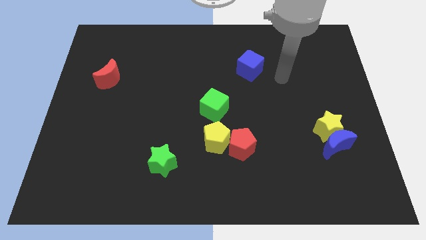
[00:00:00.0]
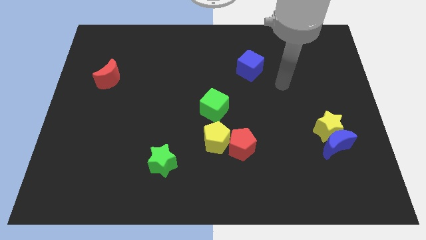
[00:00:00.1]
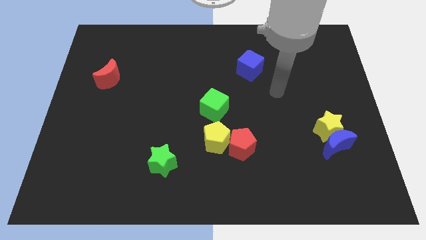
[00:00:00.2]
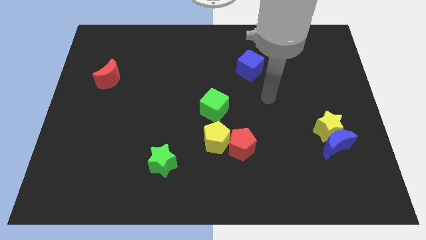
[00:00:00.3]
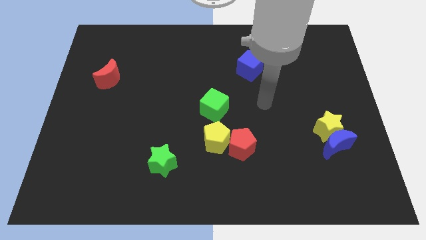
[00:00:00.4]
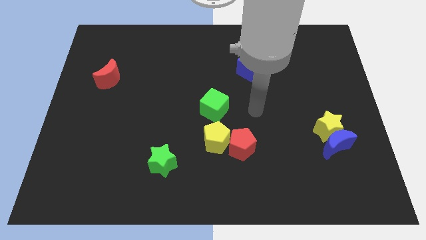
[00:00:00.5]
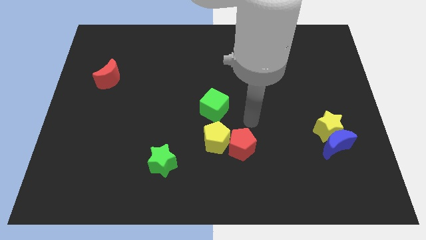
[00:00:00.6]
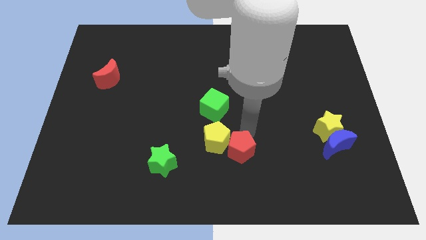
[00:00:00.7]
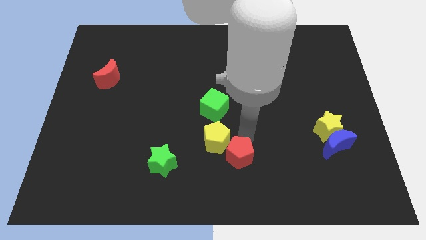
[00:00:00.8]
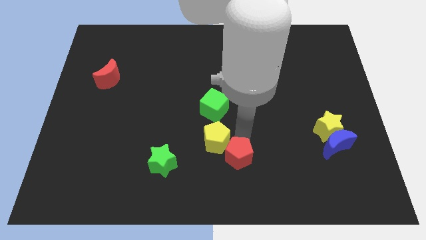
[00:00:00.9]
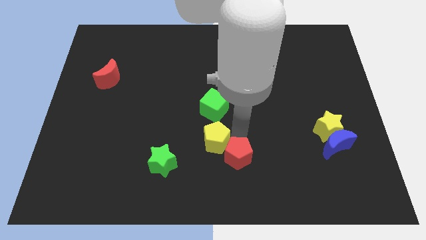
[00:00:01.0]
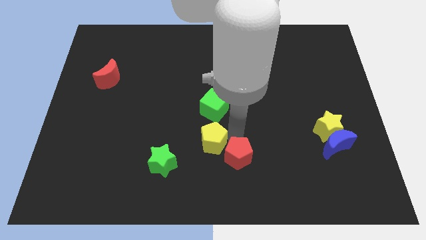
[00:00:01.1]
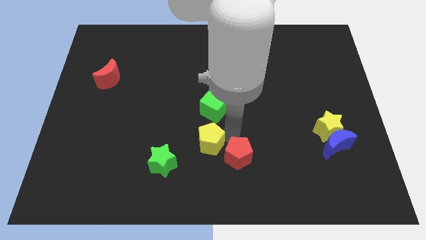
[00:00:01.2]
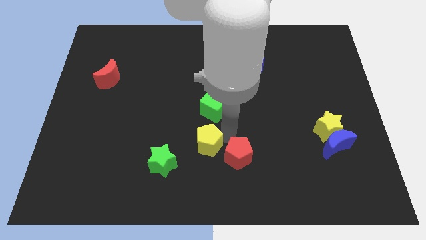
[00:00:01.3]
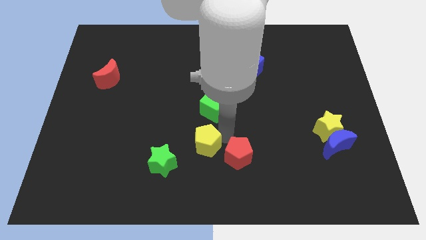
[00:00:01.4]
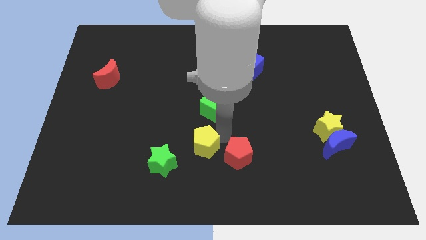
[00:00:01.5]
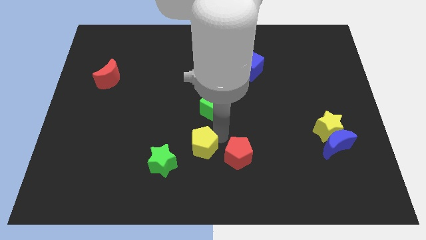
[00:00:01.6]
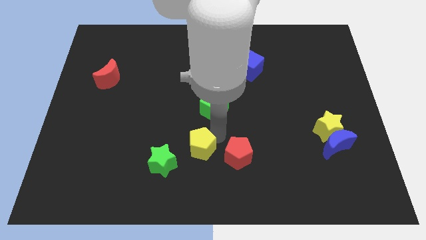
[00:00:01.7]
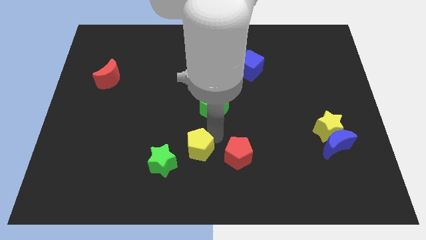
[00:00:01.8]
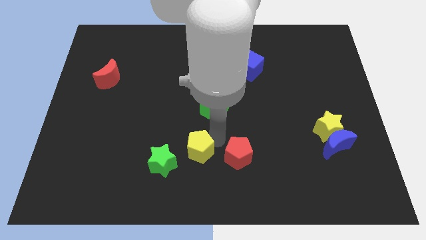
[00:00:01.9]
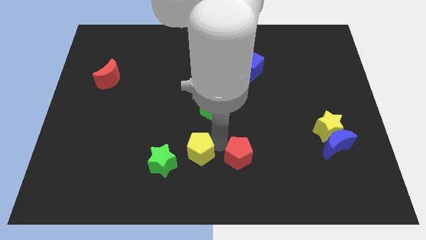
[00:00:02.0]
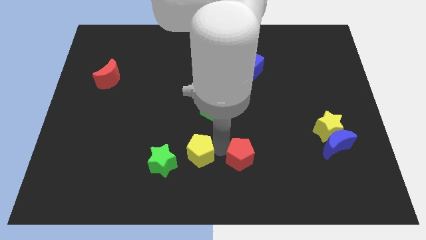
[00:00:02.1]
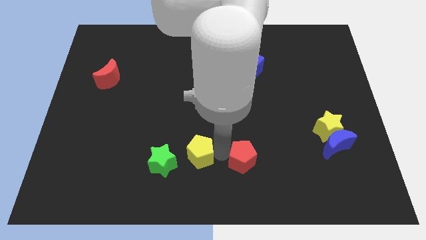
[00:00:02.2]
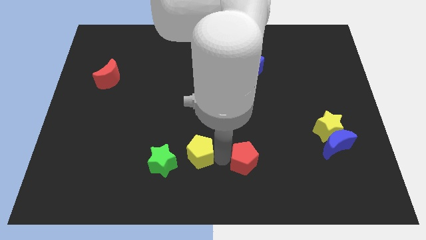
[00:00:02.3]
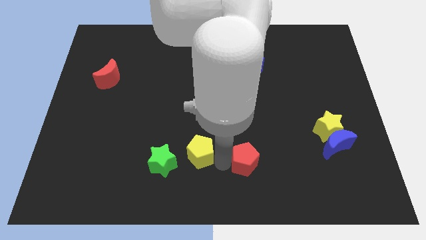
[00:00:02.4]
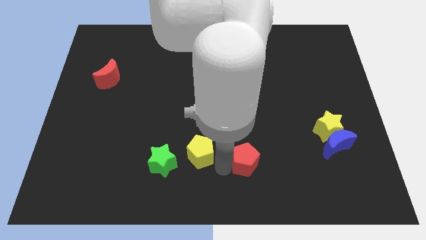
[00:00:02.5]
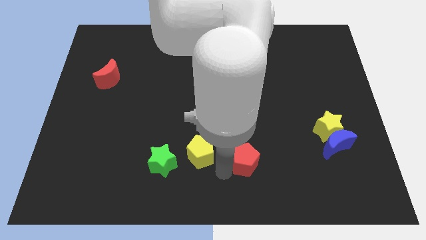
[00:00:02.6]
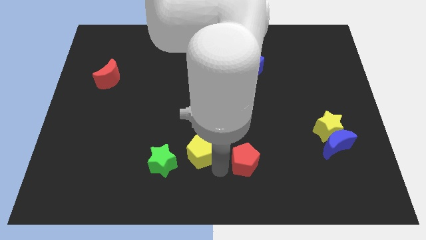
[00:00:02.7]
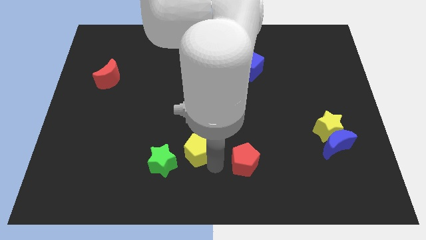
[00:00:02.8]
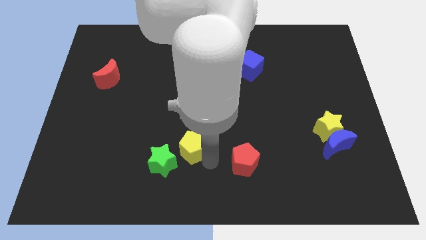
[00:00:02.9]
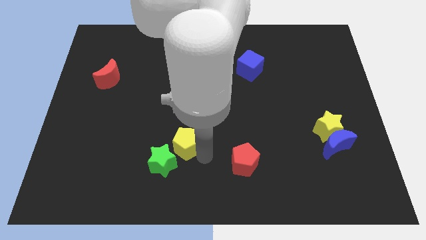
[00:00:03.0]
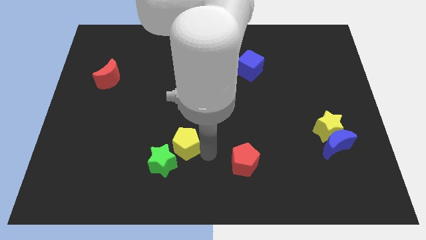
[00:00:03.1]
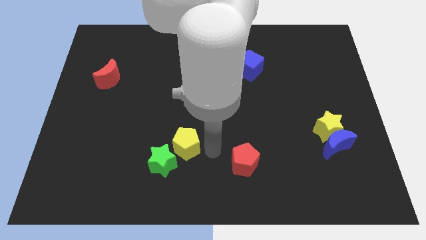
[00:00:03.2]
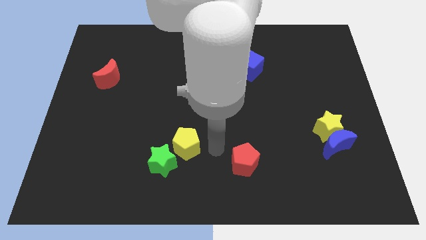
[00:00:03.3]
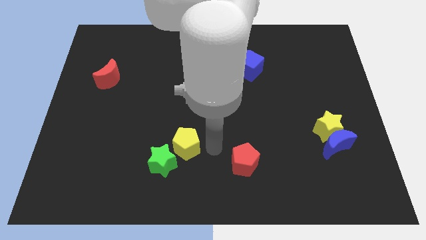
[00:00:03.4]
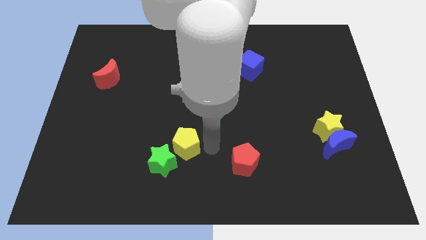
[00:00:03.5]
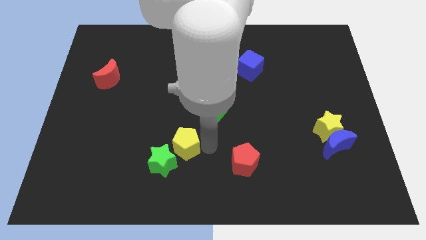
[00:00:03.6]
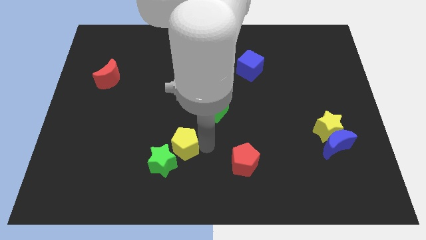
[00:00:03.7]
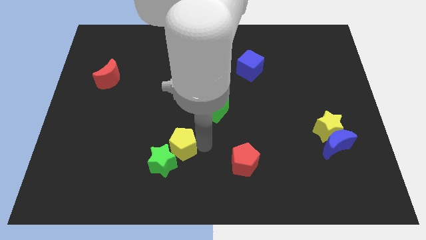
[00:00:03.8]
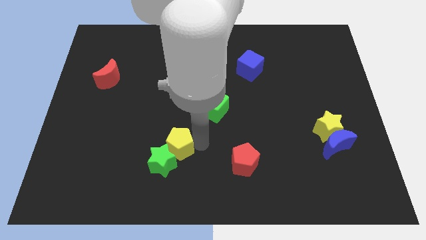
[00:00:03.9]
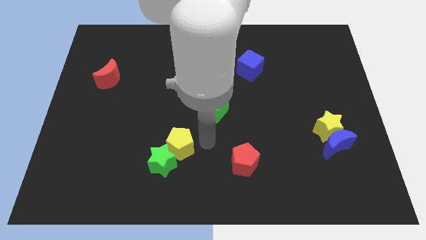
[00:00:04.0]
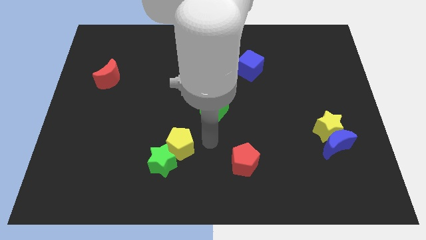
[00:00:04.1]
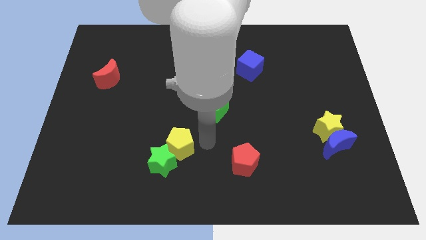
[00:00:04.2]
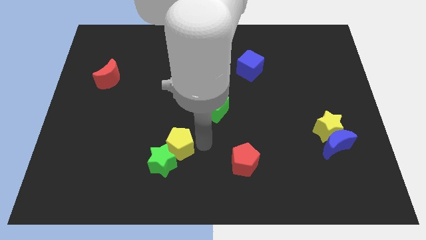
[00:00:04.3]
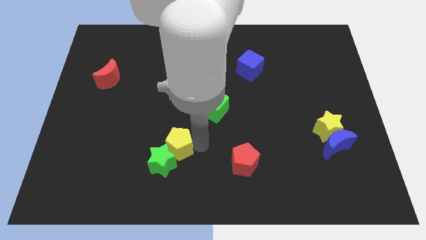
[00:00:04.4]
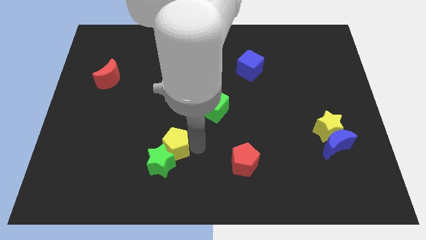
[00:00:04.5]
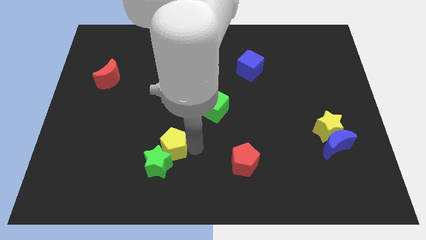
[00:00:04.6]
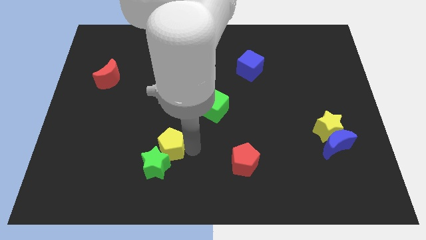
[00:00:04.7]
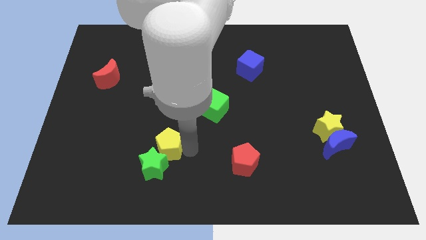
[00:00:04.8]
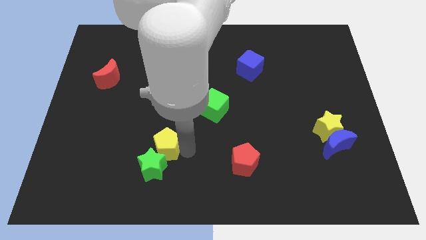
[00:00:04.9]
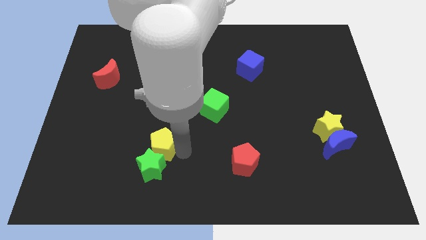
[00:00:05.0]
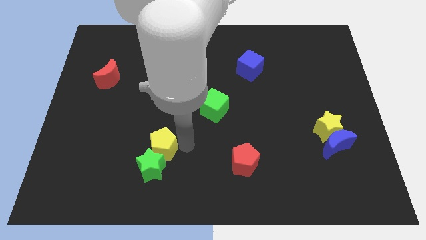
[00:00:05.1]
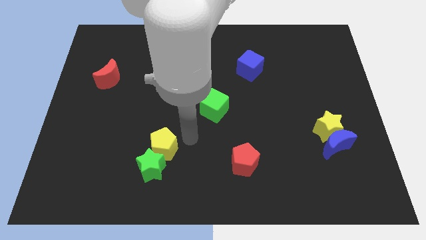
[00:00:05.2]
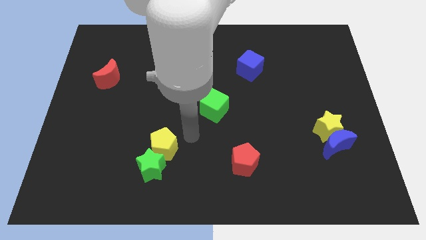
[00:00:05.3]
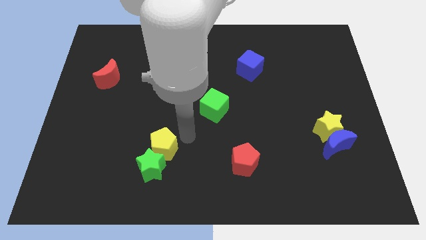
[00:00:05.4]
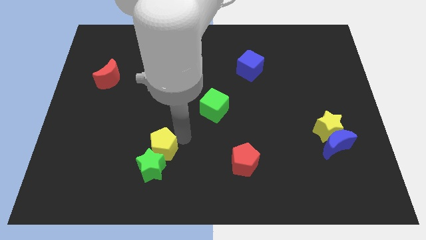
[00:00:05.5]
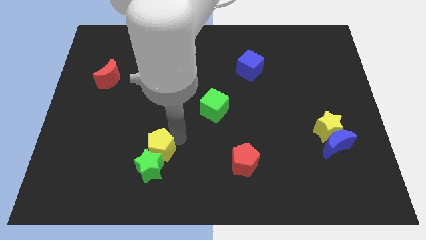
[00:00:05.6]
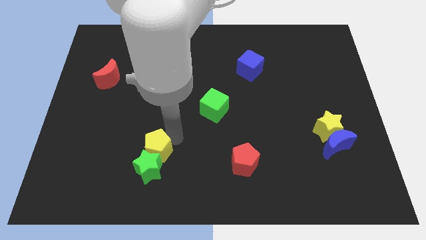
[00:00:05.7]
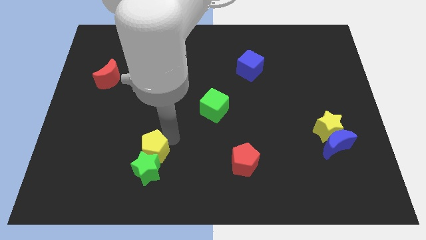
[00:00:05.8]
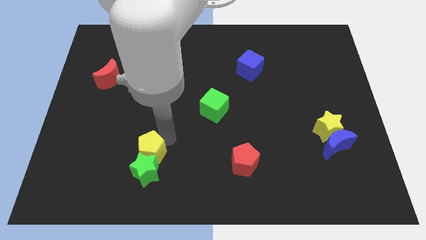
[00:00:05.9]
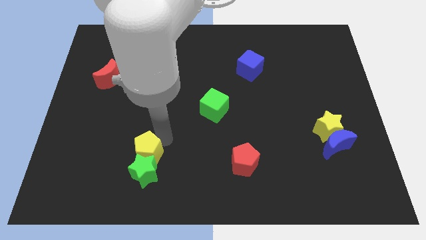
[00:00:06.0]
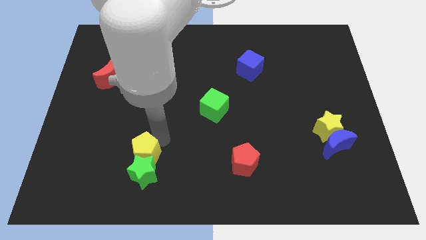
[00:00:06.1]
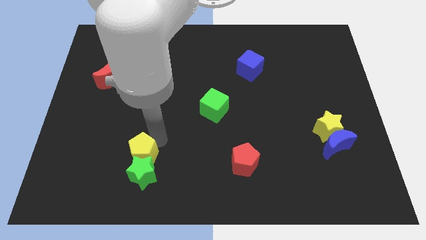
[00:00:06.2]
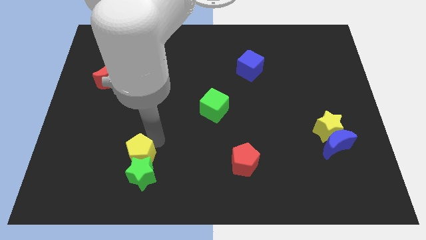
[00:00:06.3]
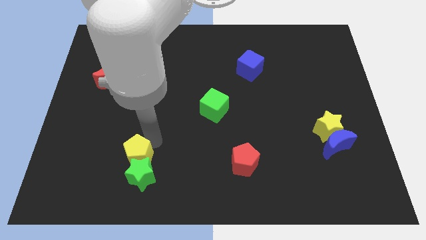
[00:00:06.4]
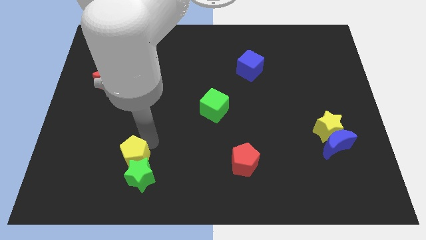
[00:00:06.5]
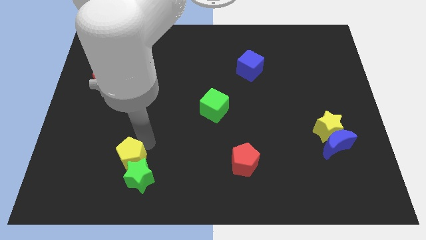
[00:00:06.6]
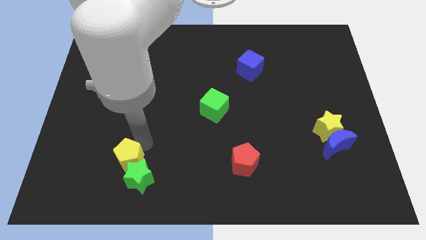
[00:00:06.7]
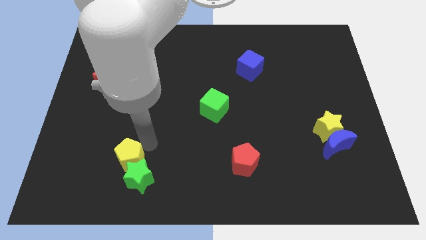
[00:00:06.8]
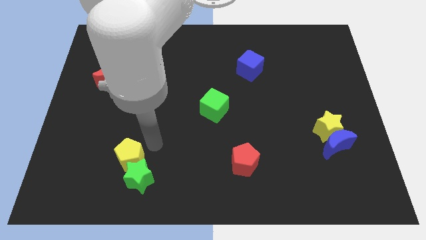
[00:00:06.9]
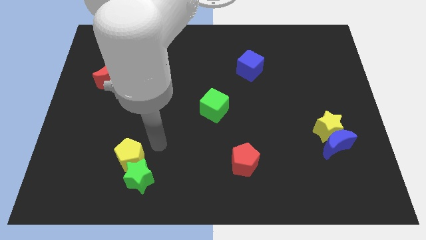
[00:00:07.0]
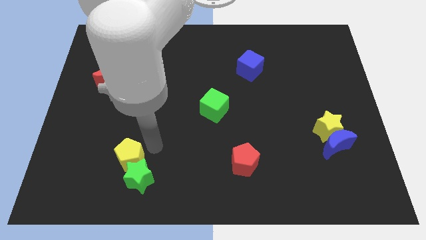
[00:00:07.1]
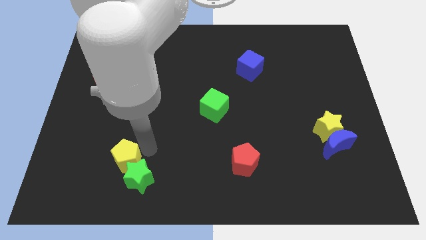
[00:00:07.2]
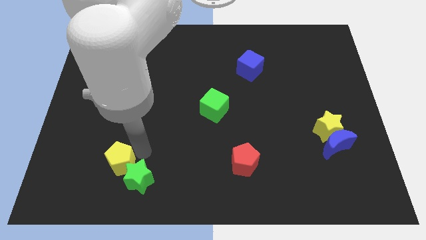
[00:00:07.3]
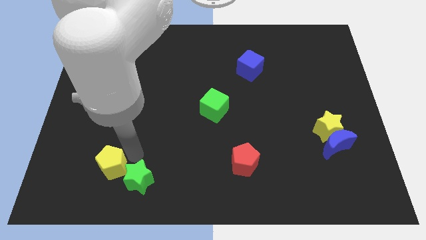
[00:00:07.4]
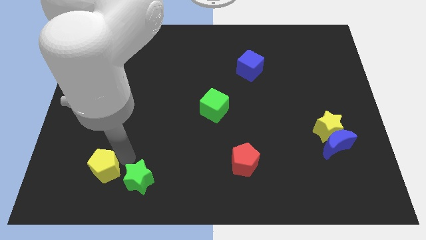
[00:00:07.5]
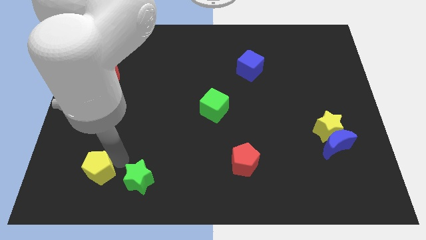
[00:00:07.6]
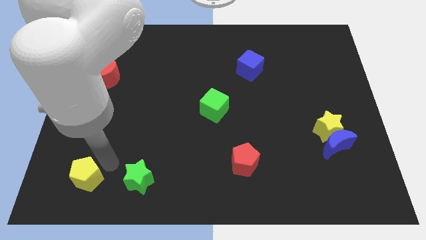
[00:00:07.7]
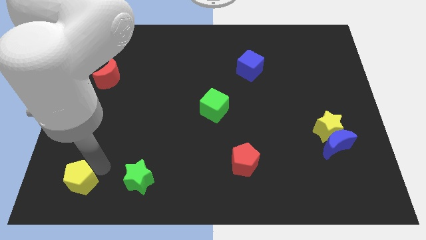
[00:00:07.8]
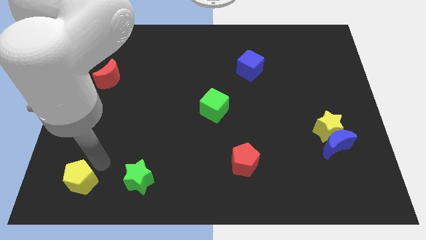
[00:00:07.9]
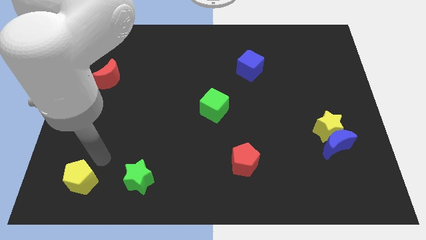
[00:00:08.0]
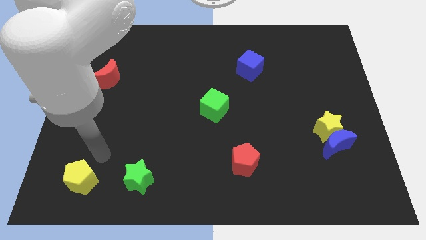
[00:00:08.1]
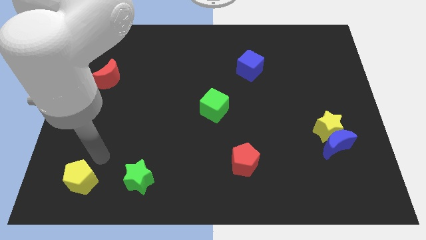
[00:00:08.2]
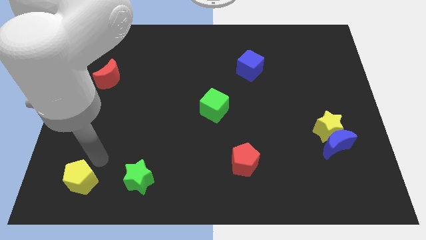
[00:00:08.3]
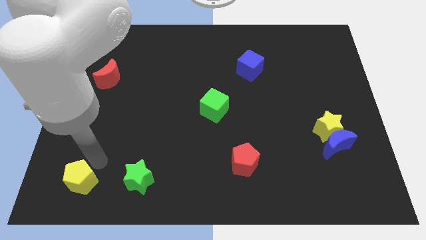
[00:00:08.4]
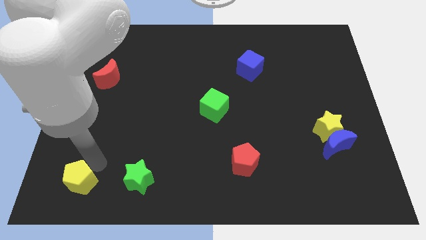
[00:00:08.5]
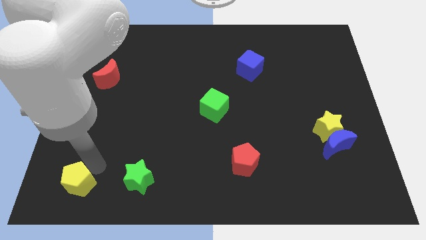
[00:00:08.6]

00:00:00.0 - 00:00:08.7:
slide the yellow pentagon to the bottom left corner
